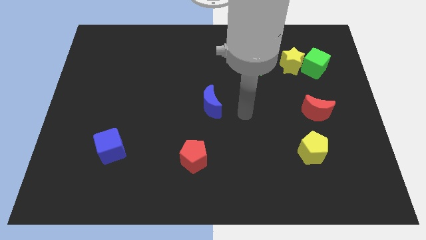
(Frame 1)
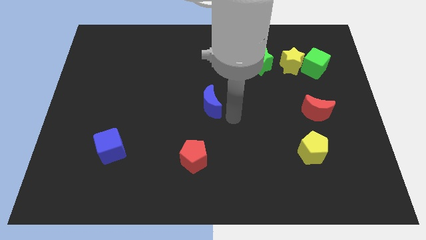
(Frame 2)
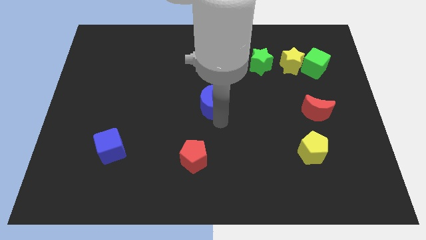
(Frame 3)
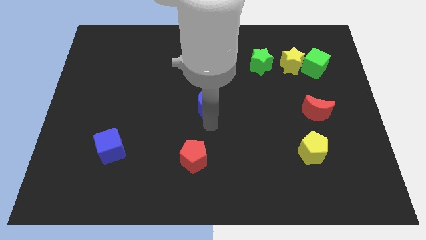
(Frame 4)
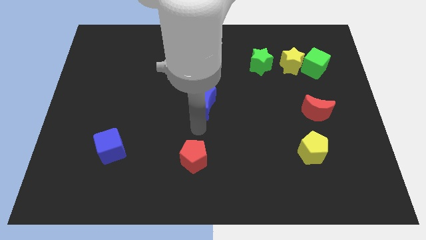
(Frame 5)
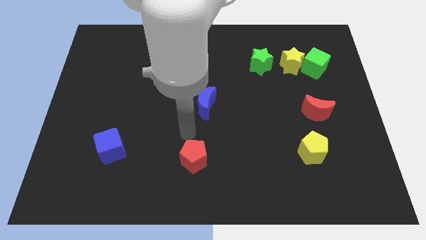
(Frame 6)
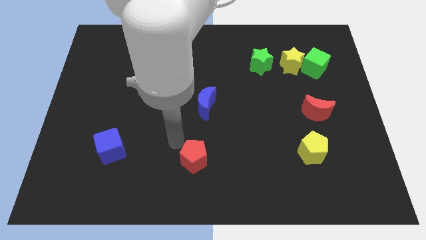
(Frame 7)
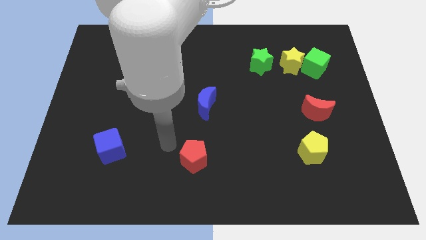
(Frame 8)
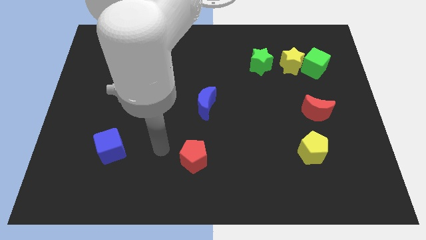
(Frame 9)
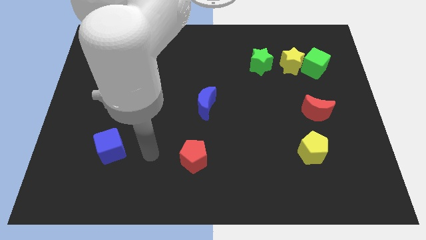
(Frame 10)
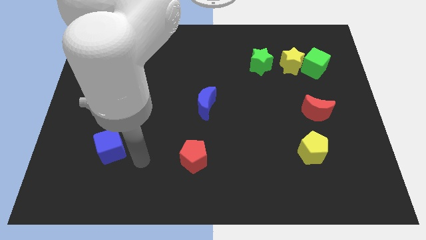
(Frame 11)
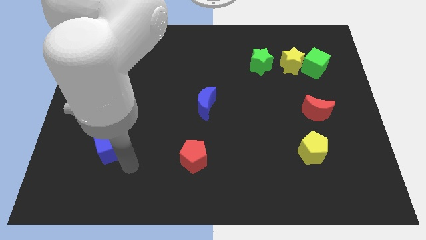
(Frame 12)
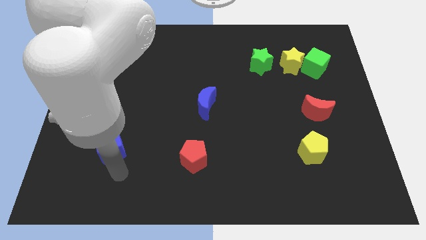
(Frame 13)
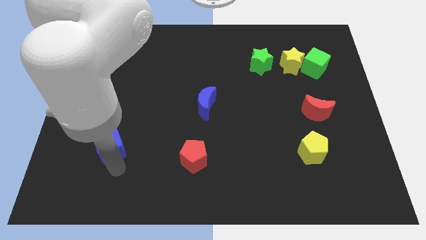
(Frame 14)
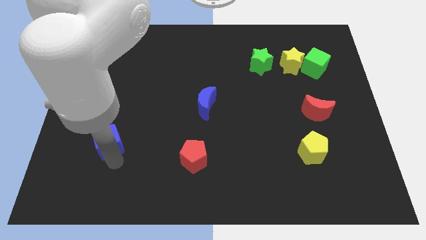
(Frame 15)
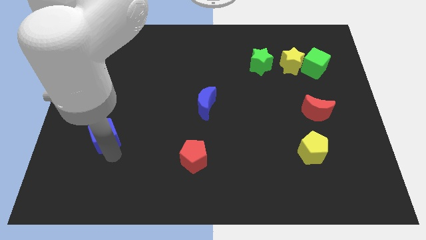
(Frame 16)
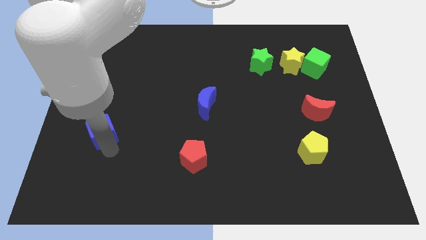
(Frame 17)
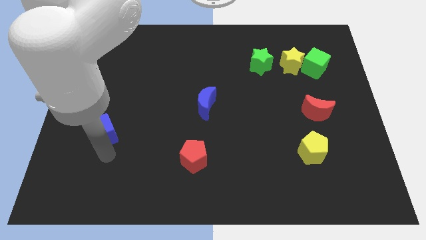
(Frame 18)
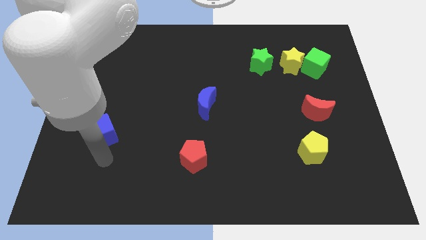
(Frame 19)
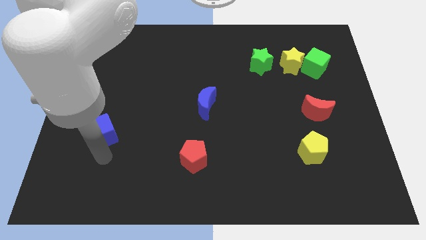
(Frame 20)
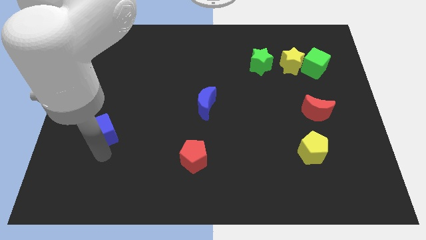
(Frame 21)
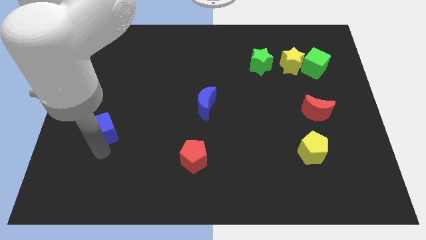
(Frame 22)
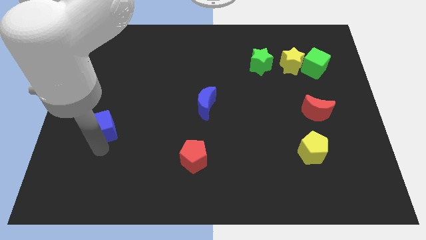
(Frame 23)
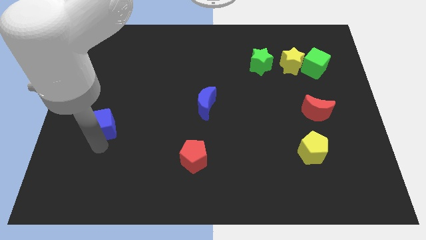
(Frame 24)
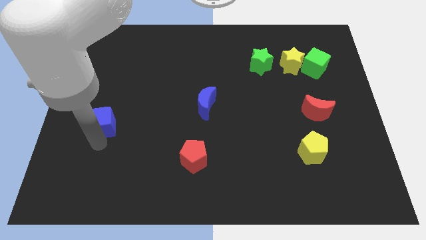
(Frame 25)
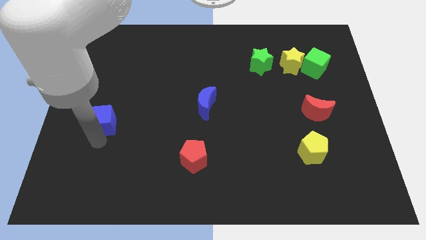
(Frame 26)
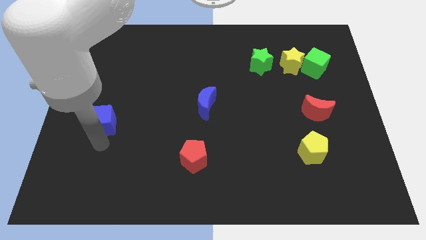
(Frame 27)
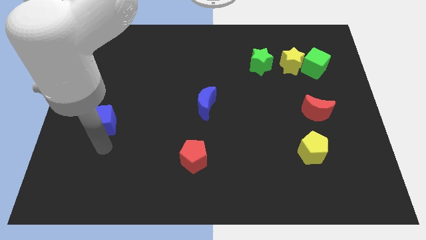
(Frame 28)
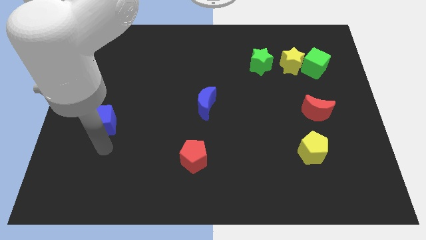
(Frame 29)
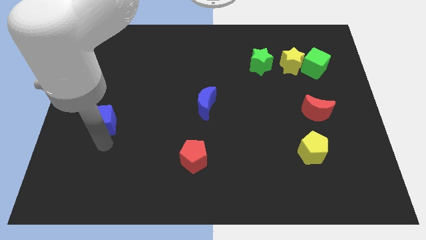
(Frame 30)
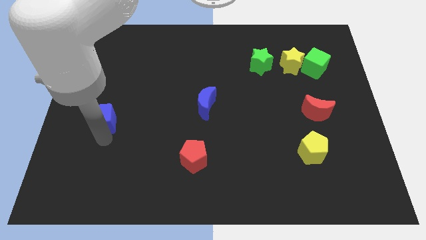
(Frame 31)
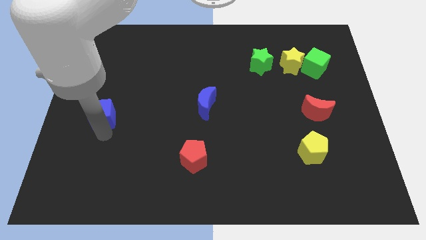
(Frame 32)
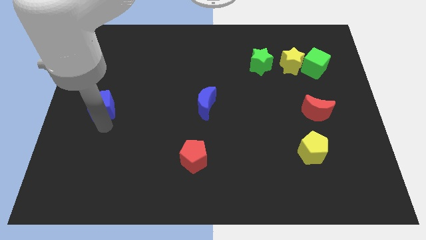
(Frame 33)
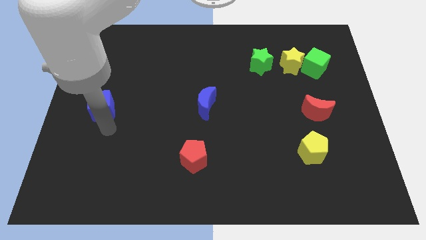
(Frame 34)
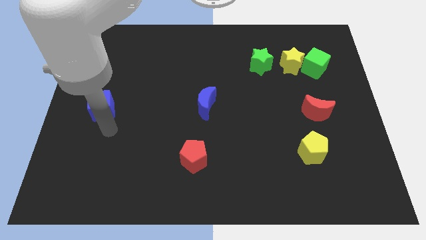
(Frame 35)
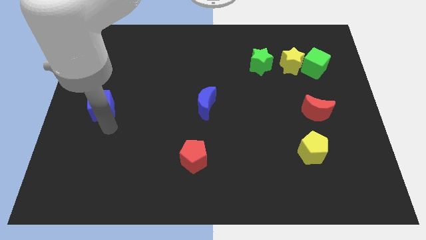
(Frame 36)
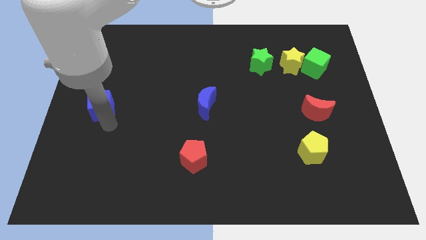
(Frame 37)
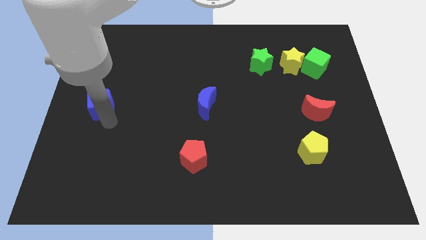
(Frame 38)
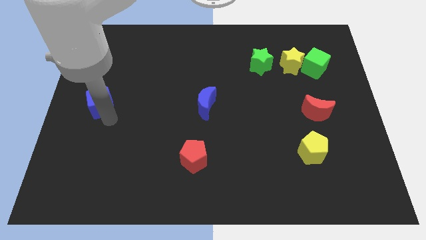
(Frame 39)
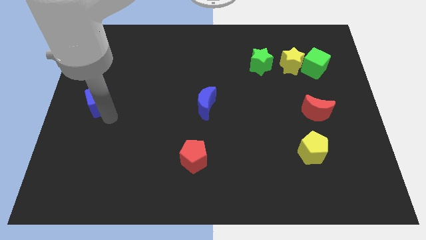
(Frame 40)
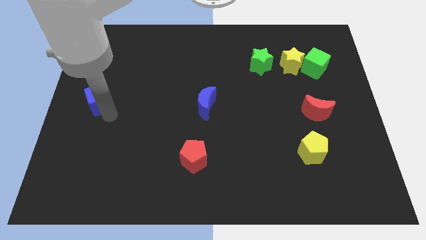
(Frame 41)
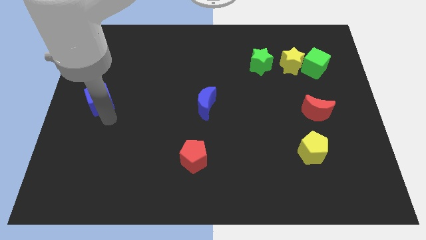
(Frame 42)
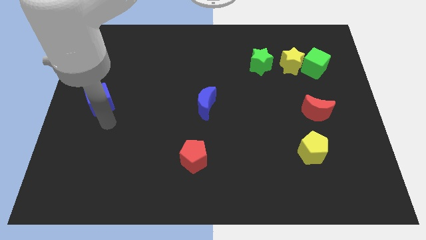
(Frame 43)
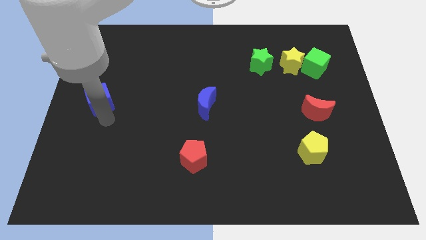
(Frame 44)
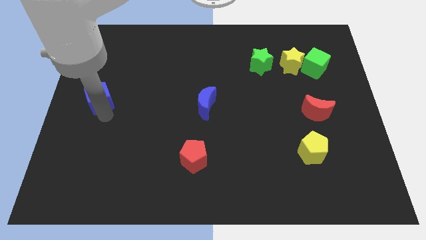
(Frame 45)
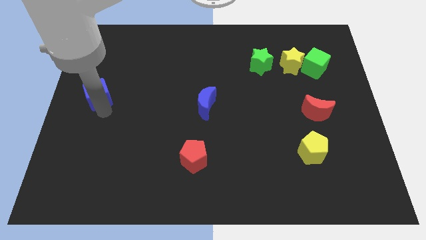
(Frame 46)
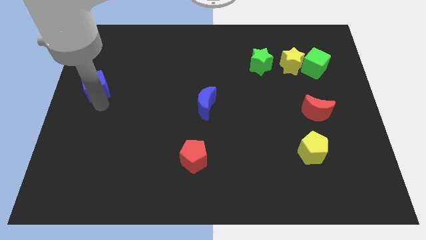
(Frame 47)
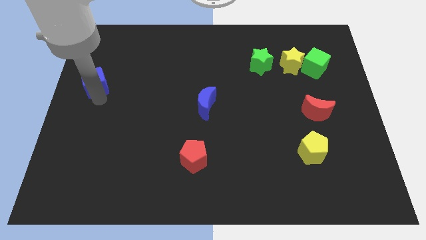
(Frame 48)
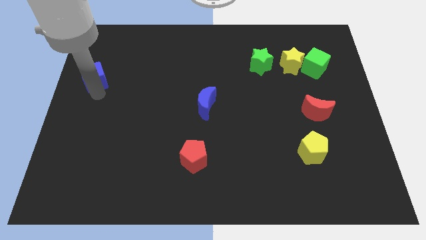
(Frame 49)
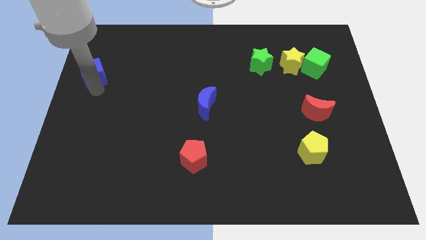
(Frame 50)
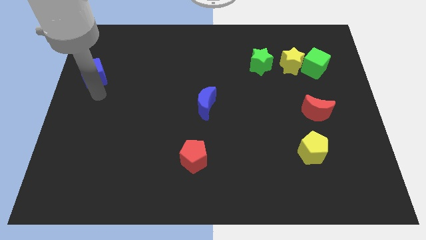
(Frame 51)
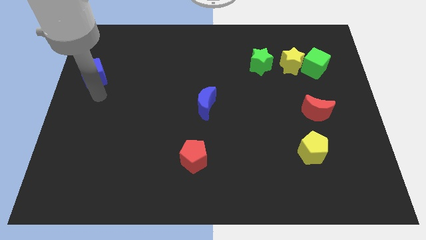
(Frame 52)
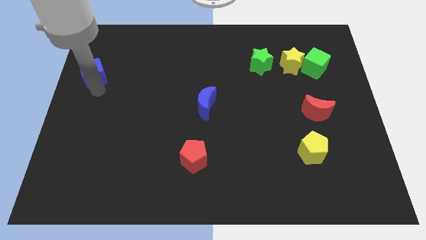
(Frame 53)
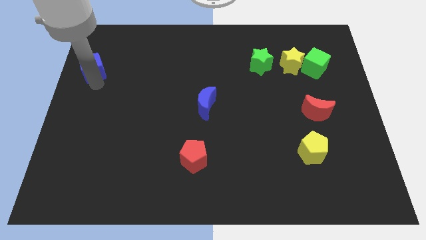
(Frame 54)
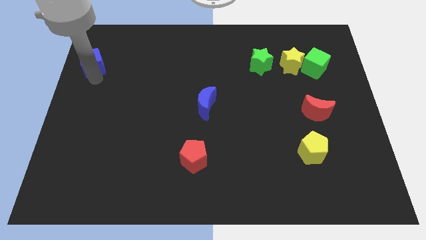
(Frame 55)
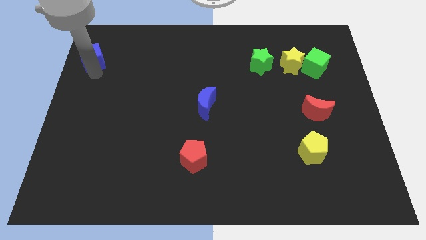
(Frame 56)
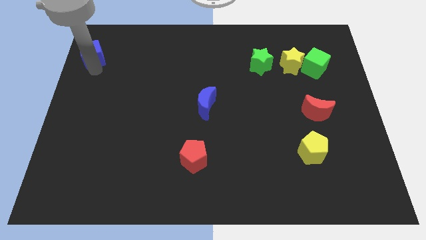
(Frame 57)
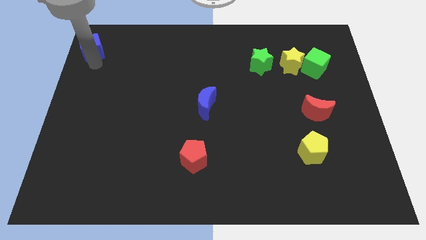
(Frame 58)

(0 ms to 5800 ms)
slide the blue cube to the top left corner
